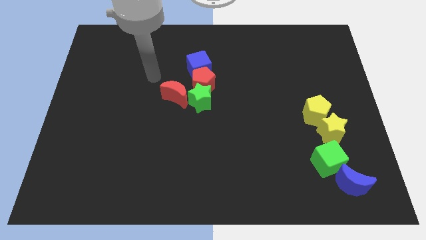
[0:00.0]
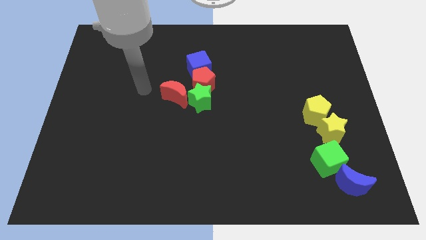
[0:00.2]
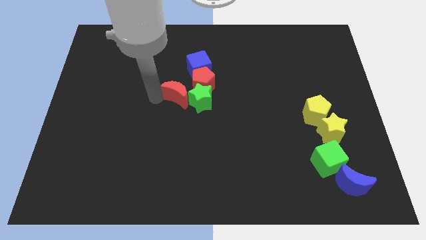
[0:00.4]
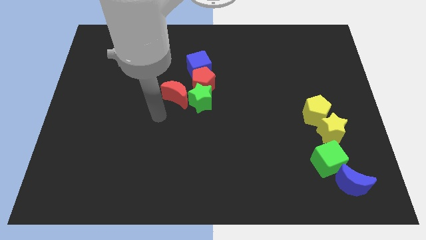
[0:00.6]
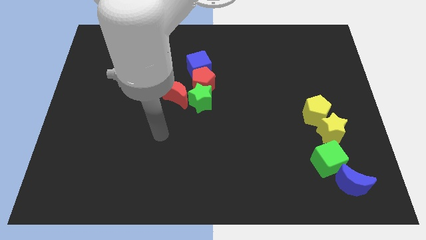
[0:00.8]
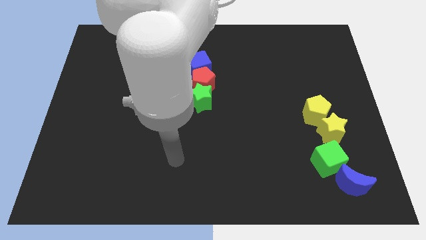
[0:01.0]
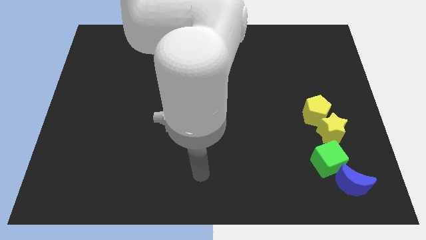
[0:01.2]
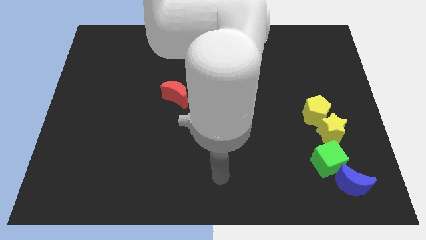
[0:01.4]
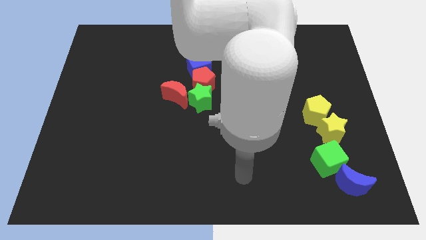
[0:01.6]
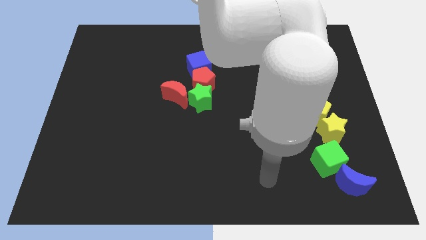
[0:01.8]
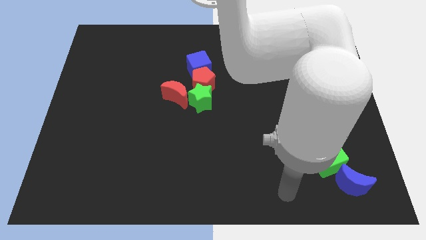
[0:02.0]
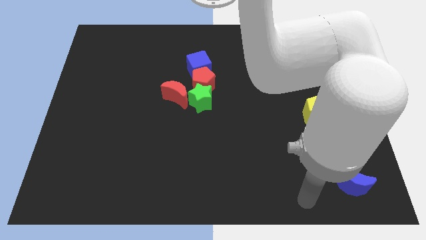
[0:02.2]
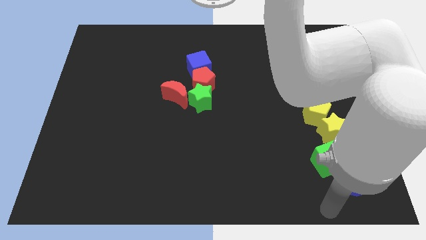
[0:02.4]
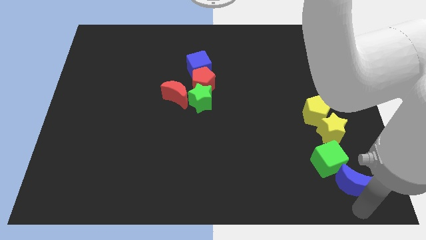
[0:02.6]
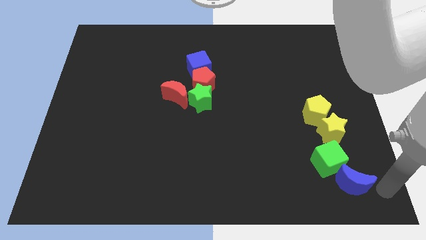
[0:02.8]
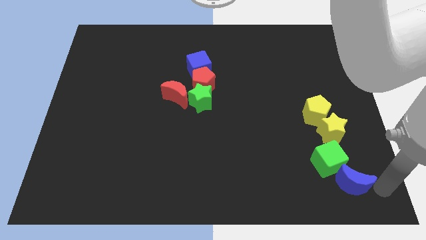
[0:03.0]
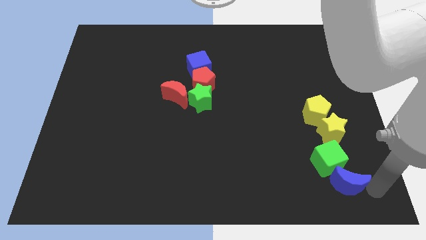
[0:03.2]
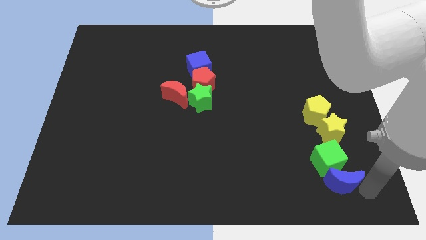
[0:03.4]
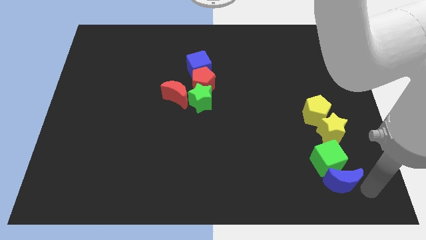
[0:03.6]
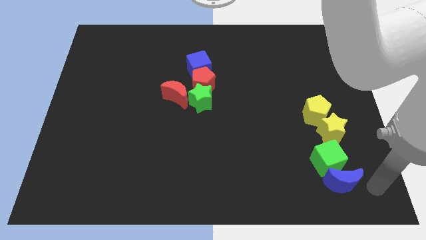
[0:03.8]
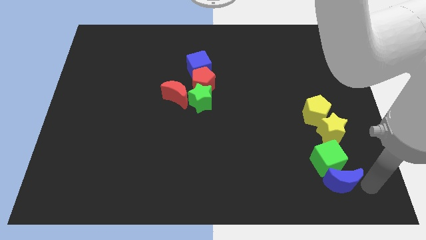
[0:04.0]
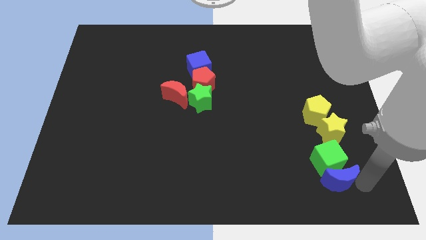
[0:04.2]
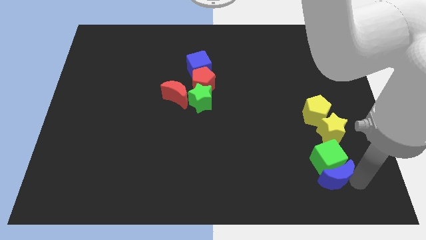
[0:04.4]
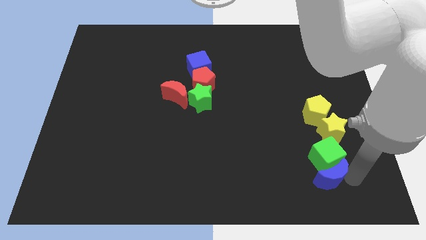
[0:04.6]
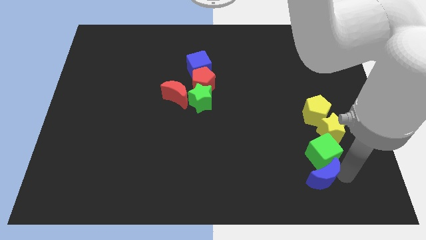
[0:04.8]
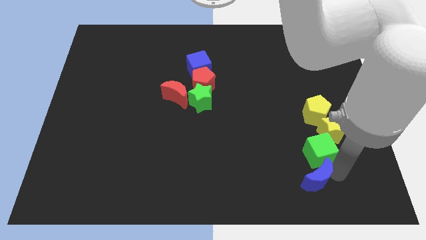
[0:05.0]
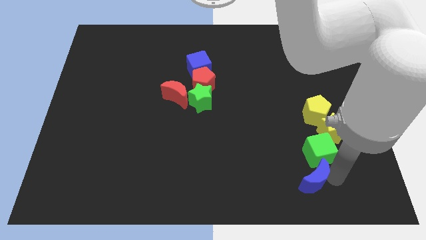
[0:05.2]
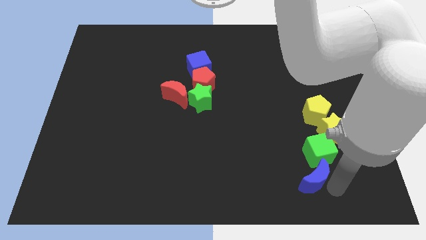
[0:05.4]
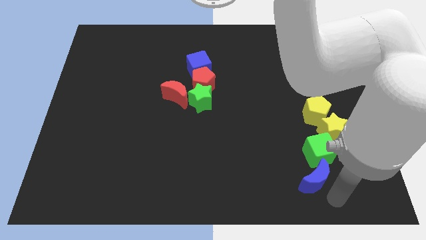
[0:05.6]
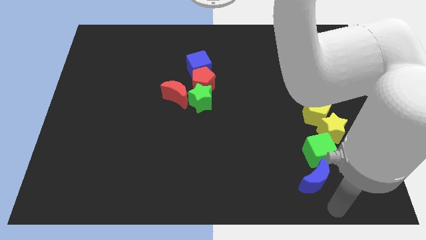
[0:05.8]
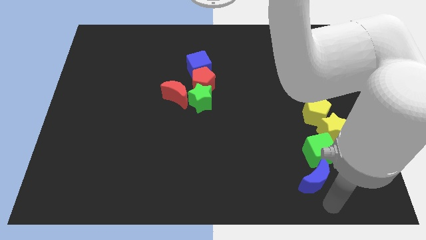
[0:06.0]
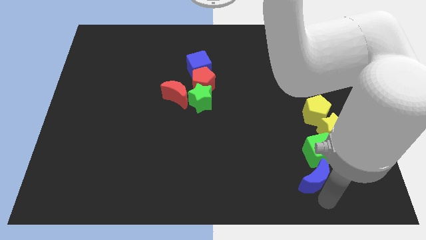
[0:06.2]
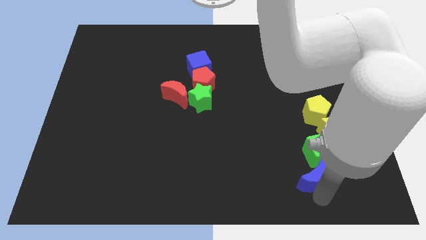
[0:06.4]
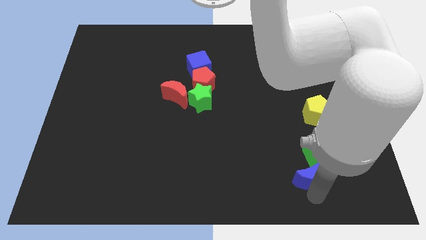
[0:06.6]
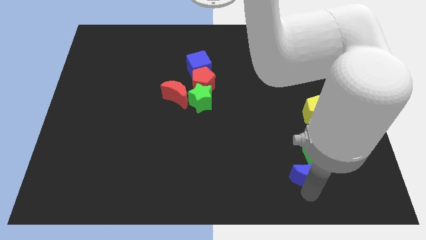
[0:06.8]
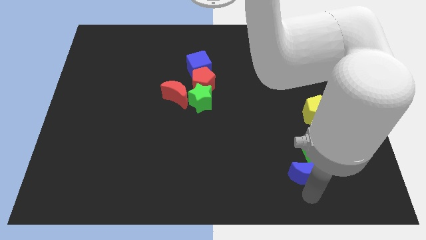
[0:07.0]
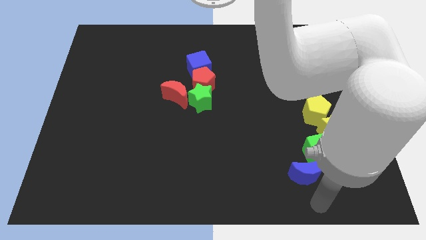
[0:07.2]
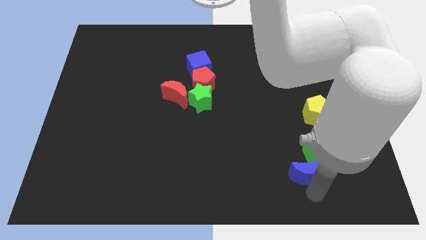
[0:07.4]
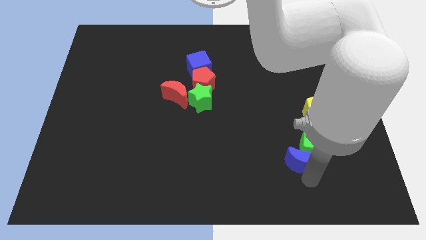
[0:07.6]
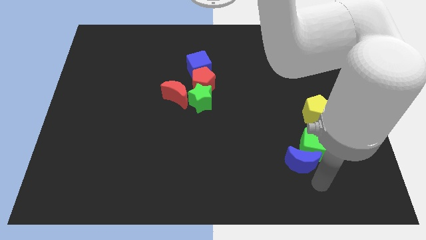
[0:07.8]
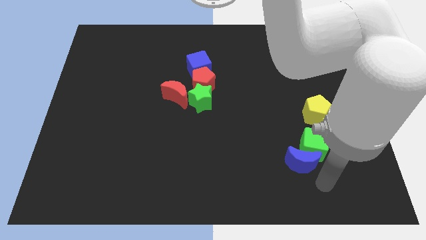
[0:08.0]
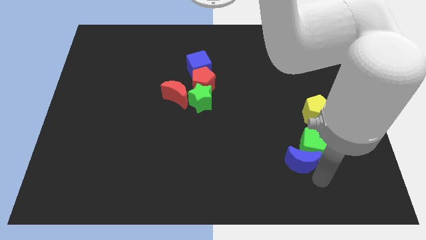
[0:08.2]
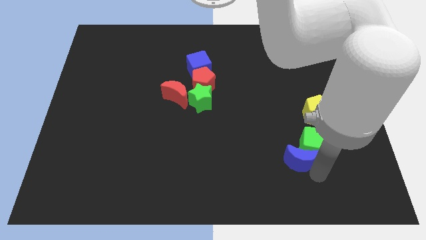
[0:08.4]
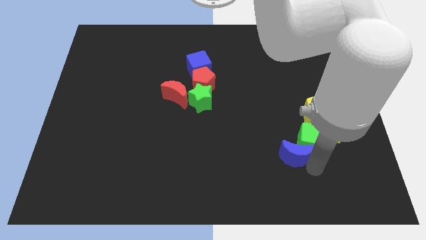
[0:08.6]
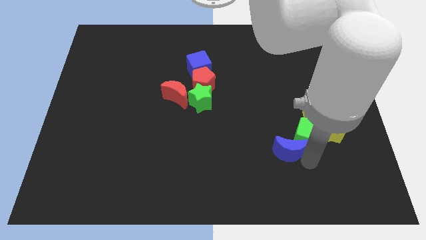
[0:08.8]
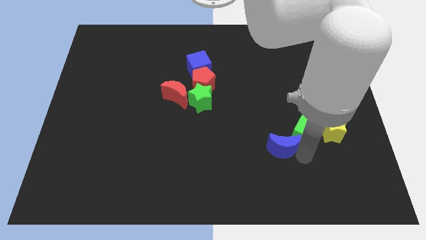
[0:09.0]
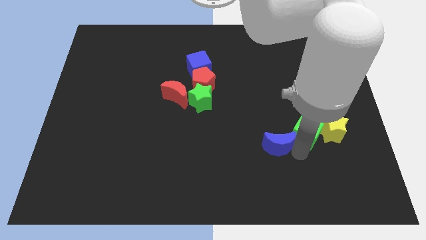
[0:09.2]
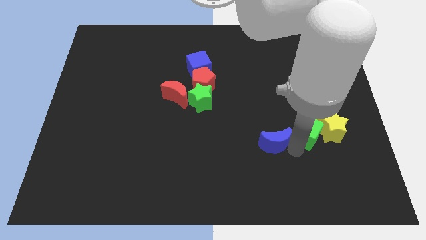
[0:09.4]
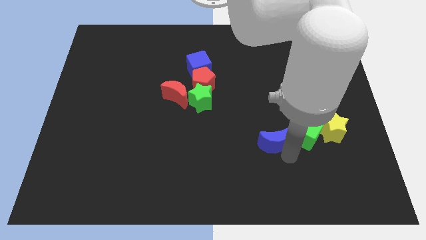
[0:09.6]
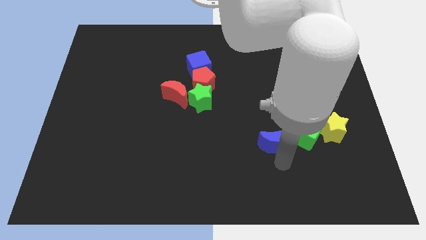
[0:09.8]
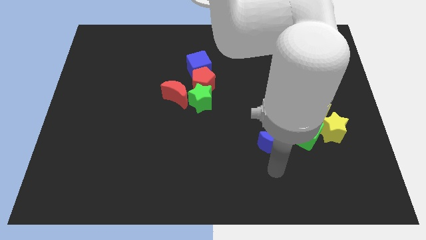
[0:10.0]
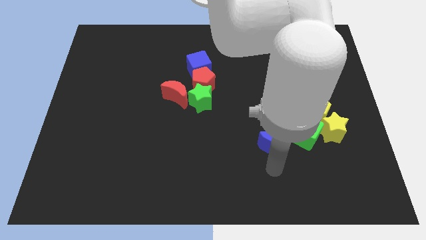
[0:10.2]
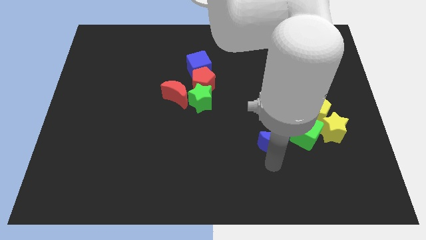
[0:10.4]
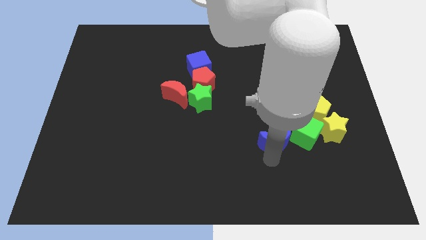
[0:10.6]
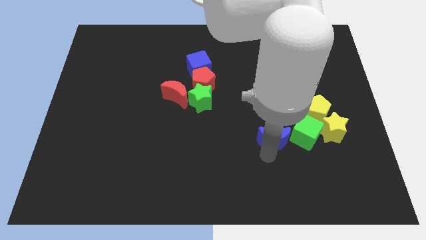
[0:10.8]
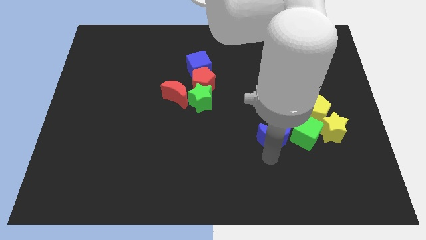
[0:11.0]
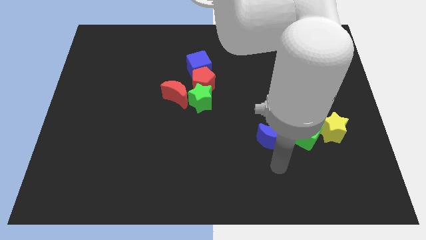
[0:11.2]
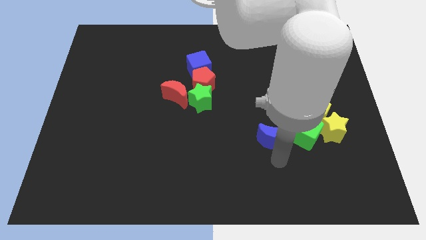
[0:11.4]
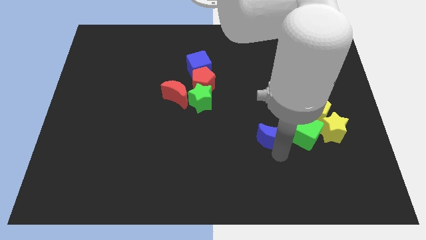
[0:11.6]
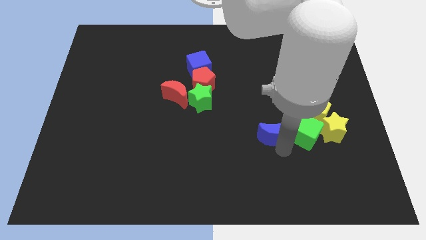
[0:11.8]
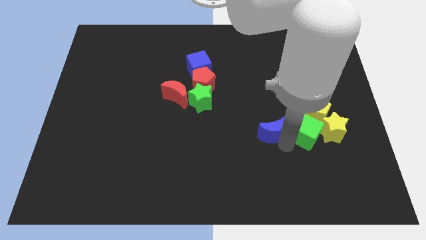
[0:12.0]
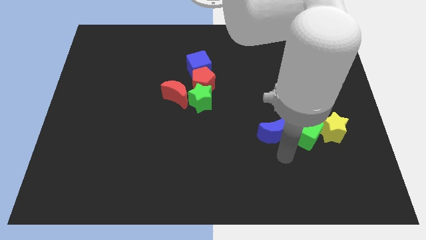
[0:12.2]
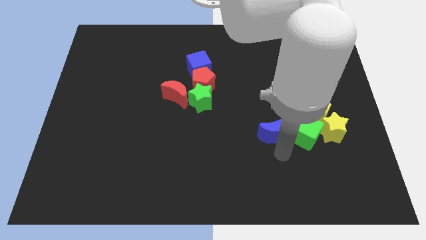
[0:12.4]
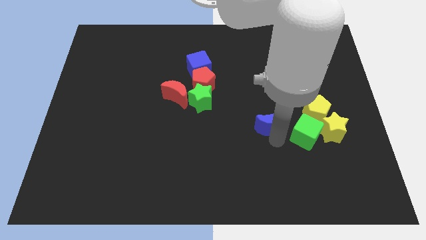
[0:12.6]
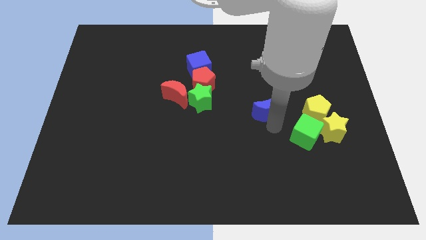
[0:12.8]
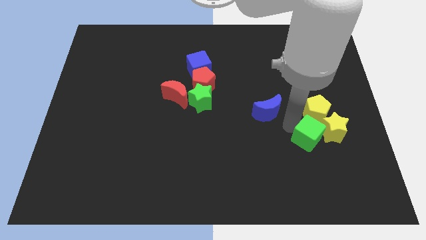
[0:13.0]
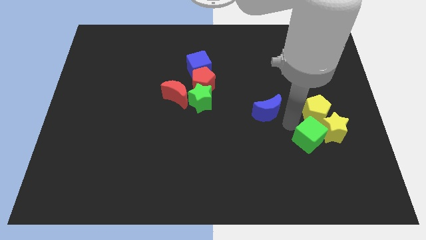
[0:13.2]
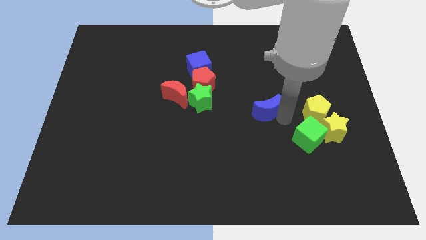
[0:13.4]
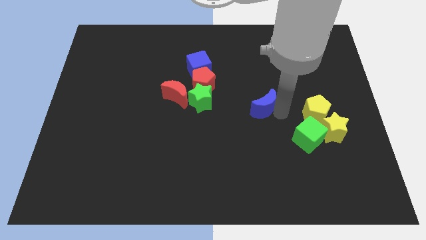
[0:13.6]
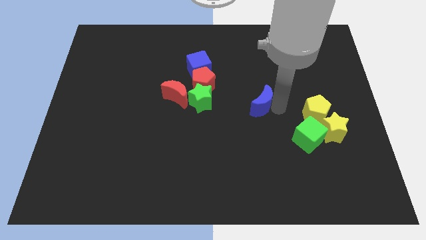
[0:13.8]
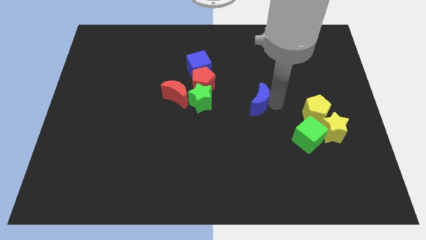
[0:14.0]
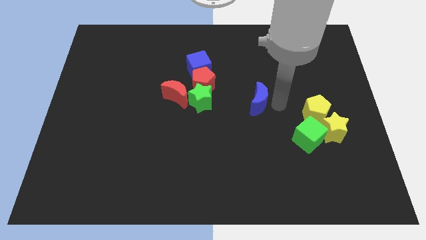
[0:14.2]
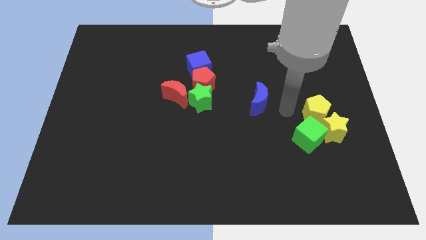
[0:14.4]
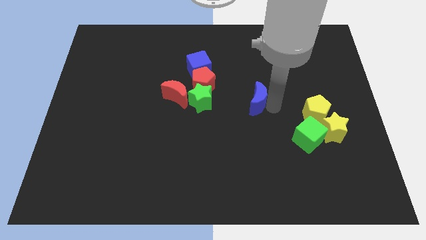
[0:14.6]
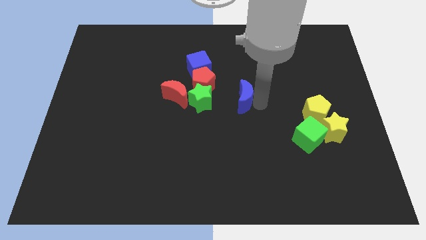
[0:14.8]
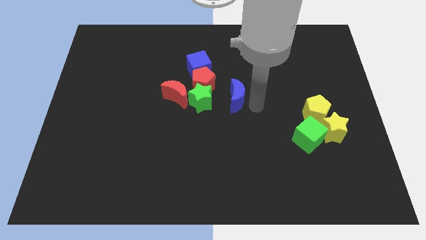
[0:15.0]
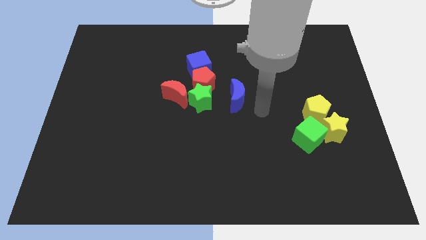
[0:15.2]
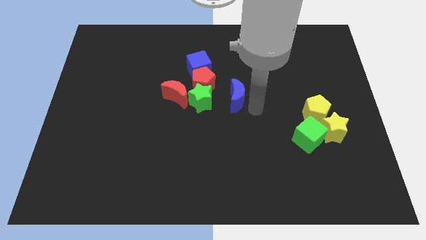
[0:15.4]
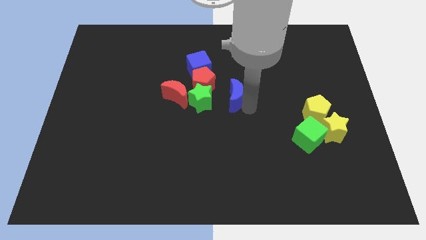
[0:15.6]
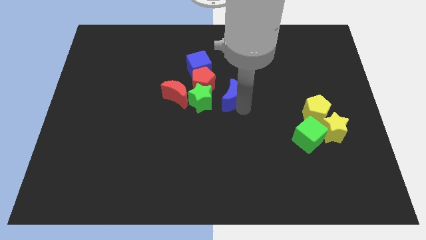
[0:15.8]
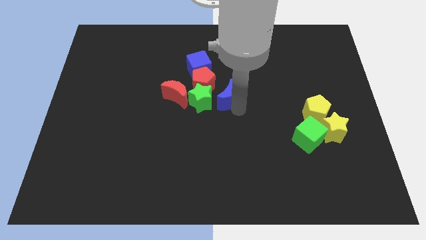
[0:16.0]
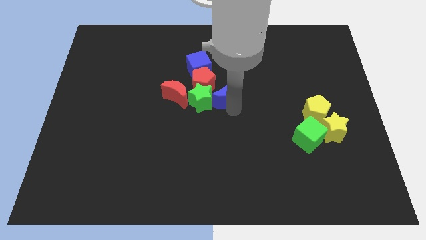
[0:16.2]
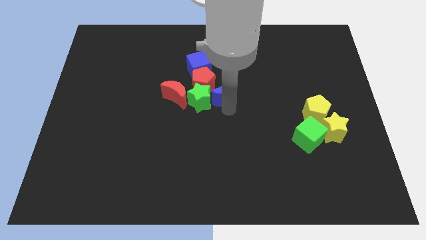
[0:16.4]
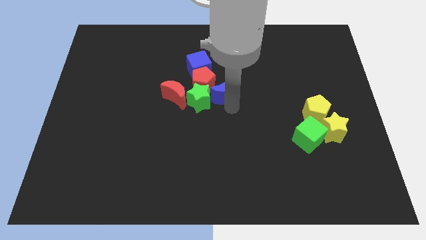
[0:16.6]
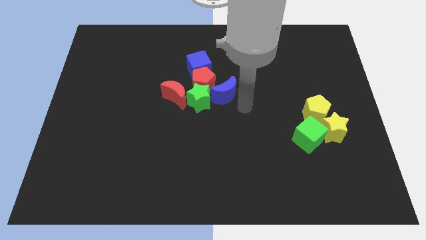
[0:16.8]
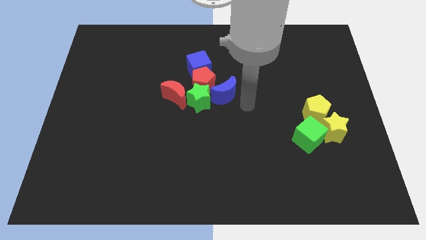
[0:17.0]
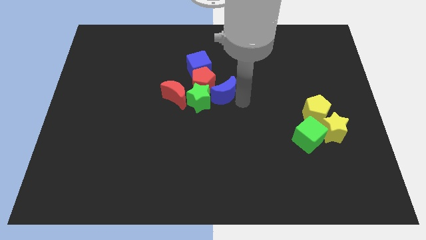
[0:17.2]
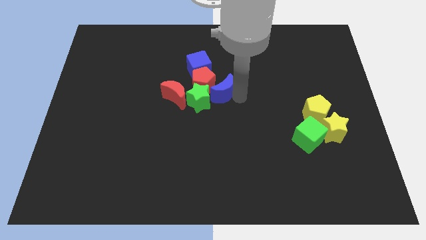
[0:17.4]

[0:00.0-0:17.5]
move the blue moon towards the red pentagon
